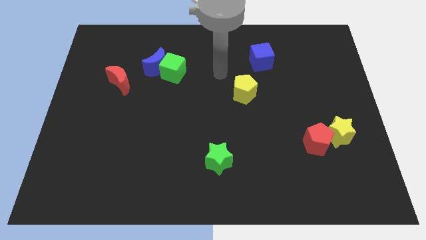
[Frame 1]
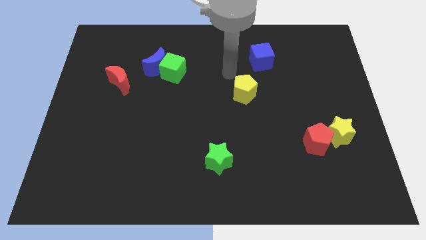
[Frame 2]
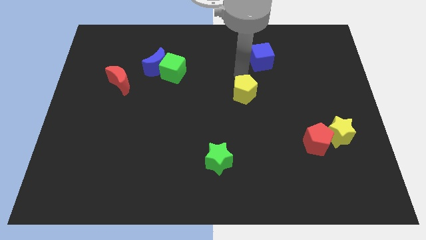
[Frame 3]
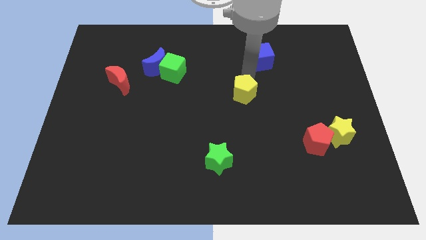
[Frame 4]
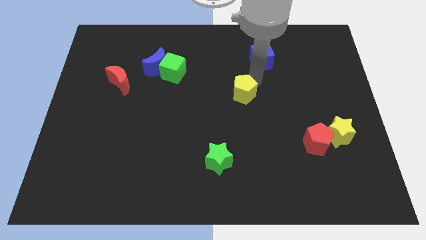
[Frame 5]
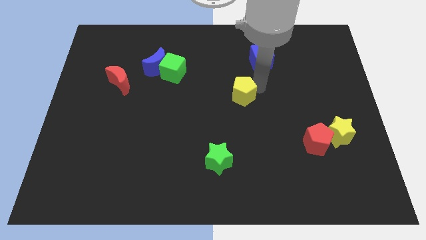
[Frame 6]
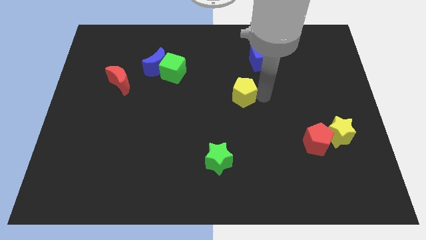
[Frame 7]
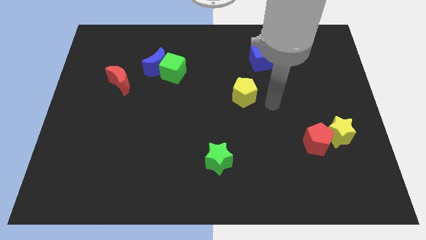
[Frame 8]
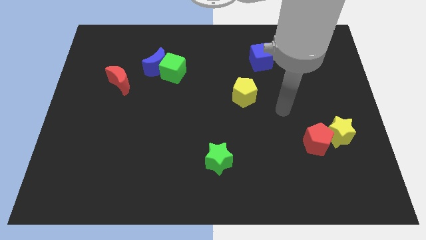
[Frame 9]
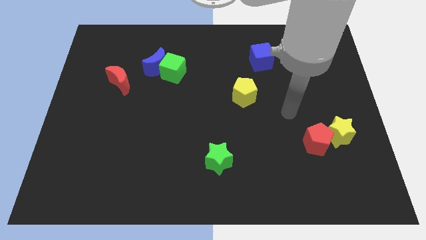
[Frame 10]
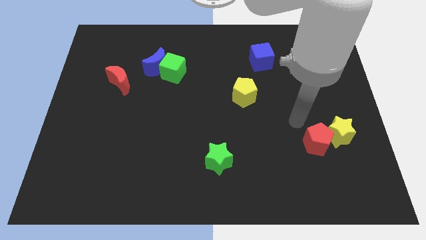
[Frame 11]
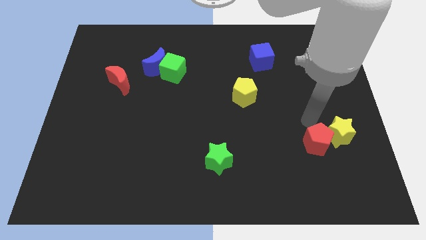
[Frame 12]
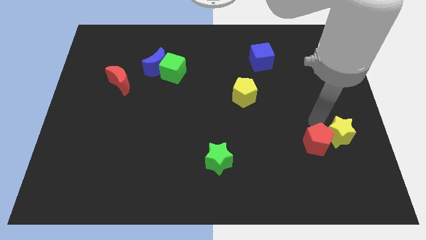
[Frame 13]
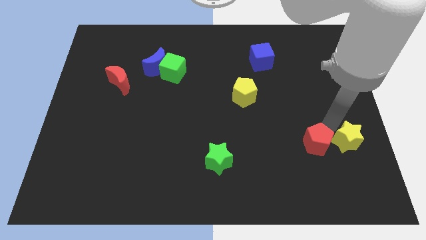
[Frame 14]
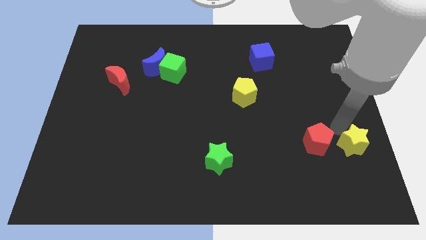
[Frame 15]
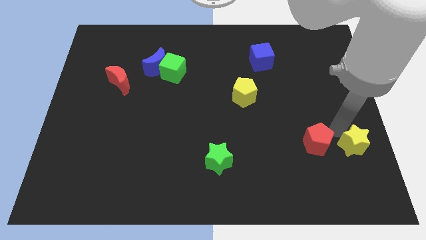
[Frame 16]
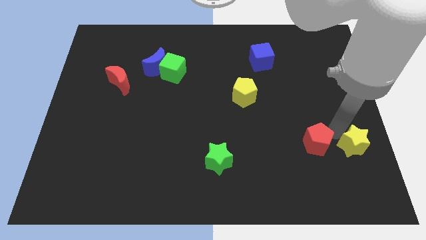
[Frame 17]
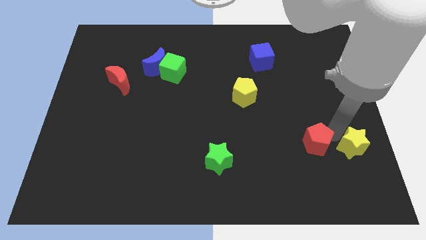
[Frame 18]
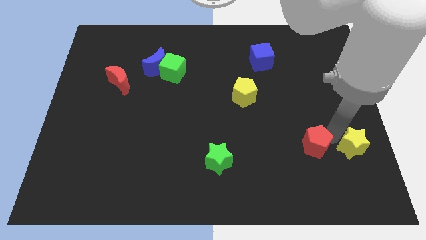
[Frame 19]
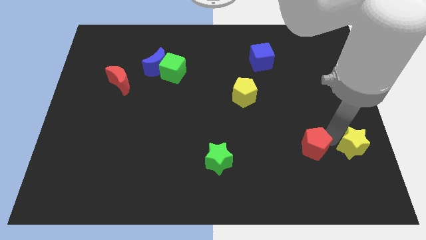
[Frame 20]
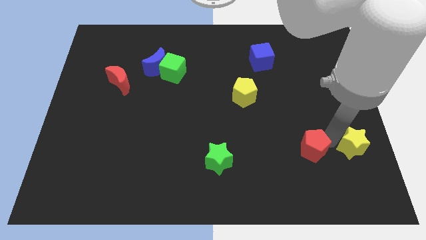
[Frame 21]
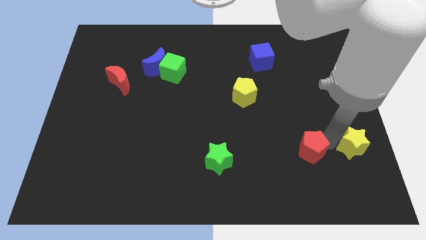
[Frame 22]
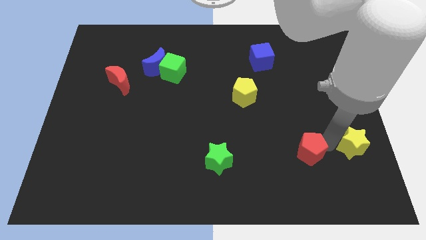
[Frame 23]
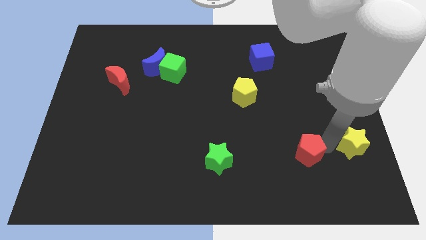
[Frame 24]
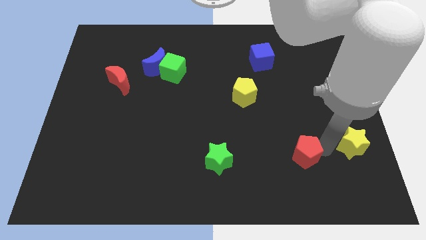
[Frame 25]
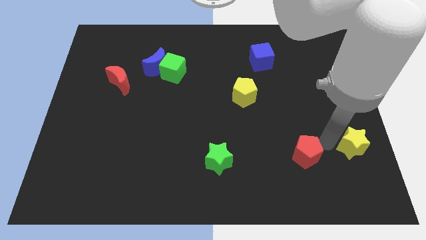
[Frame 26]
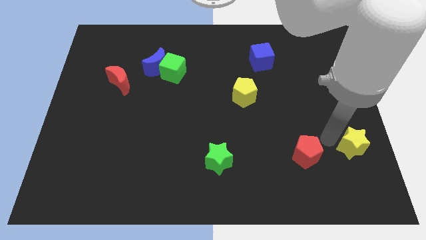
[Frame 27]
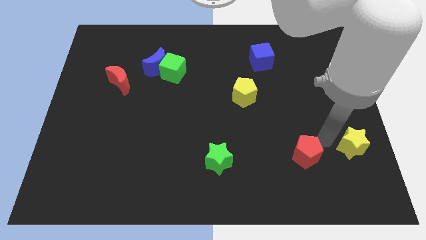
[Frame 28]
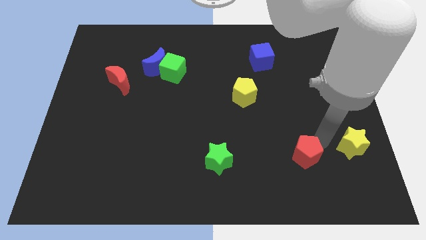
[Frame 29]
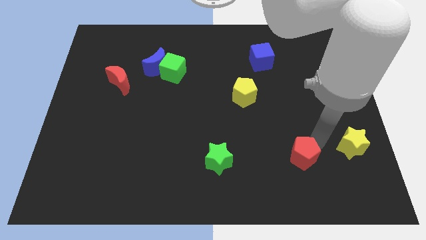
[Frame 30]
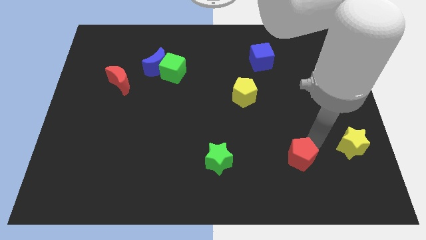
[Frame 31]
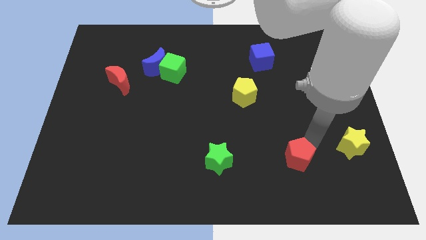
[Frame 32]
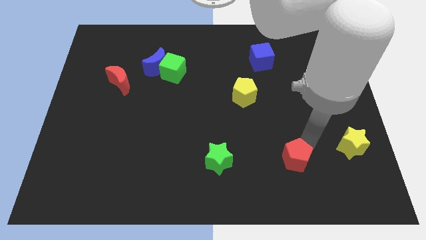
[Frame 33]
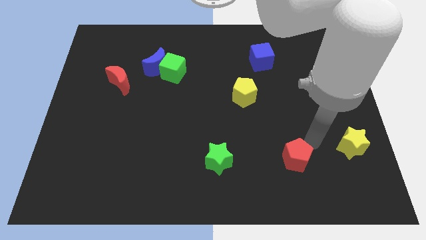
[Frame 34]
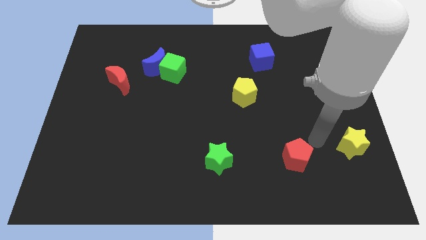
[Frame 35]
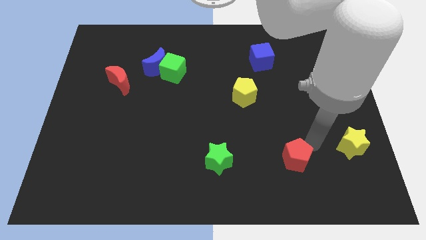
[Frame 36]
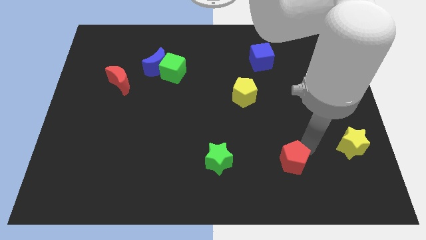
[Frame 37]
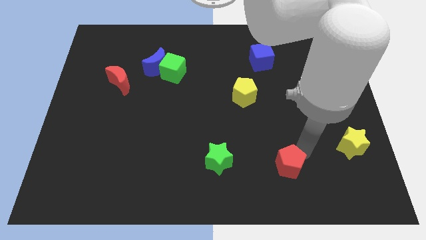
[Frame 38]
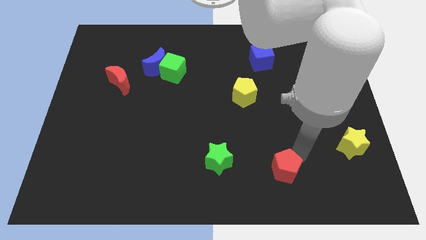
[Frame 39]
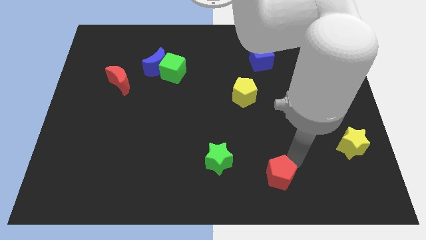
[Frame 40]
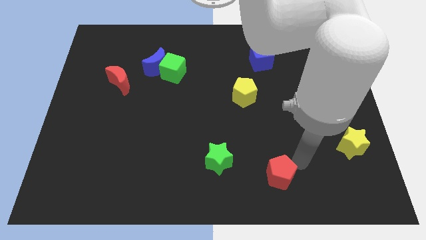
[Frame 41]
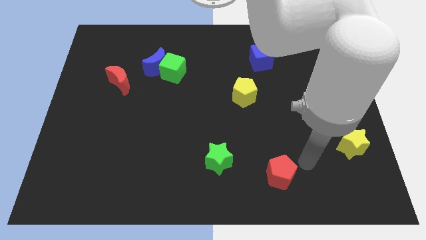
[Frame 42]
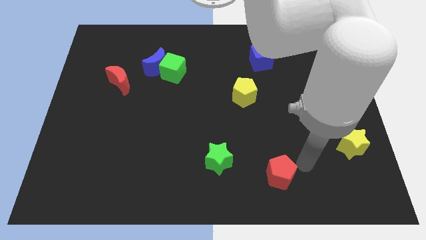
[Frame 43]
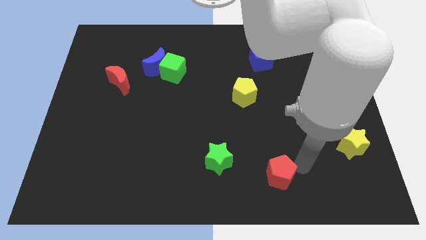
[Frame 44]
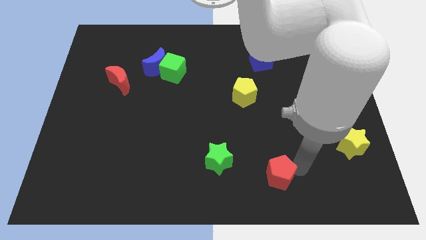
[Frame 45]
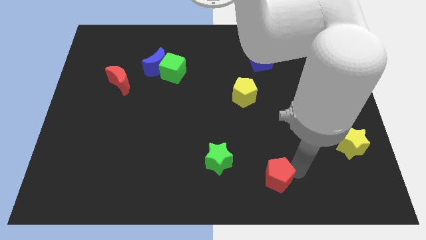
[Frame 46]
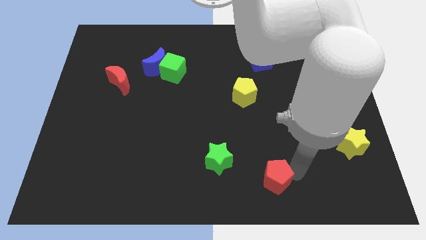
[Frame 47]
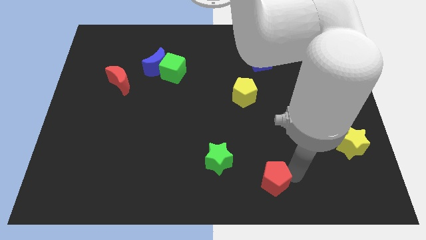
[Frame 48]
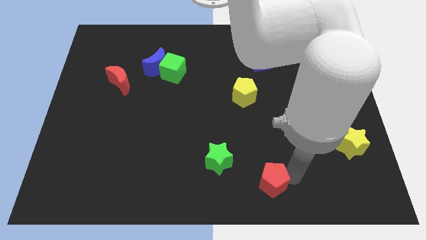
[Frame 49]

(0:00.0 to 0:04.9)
push the red pentagon to the bottom

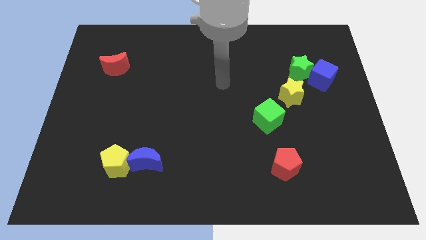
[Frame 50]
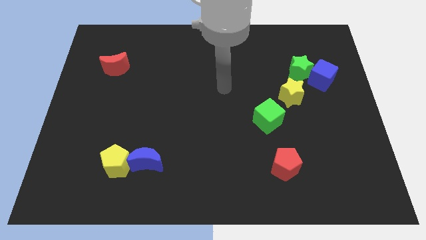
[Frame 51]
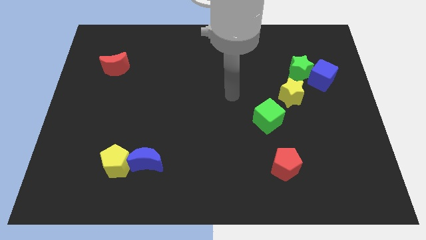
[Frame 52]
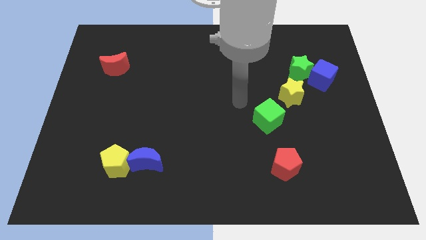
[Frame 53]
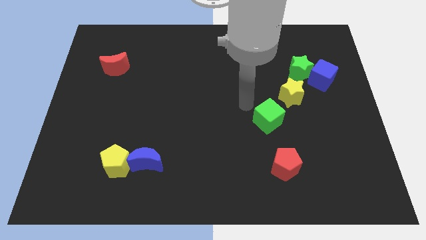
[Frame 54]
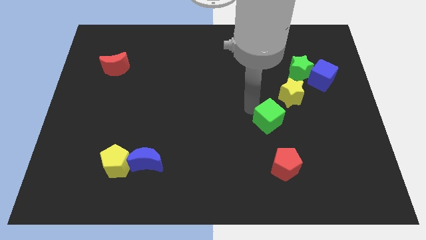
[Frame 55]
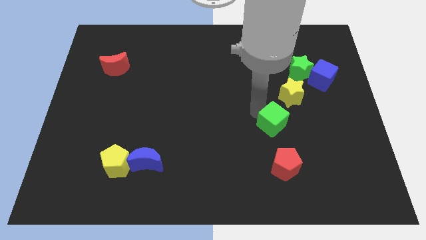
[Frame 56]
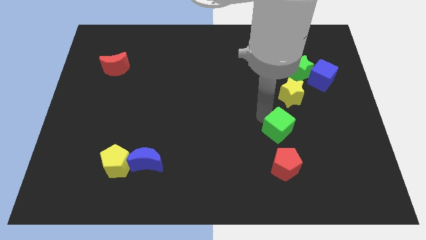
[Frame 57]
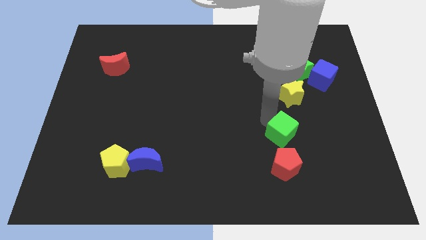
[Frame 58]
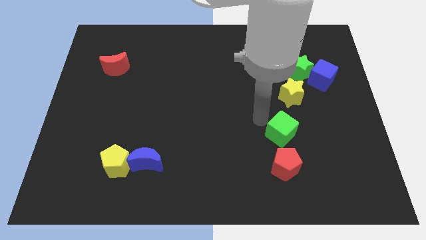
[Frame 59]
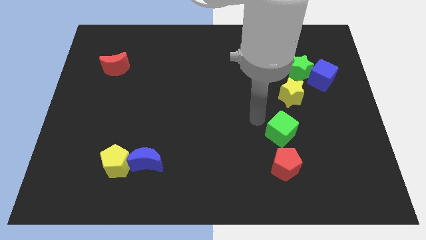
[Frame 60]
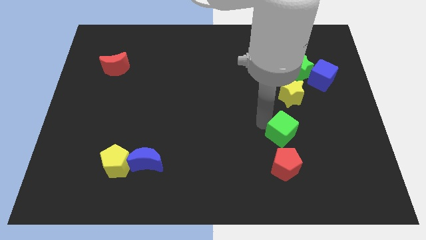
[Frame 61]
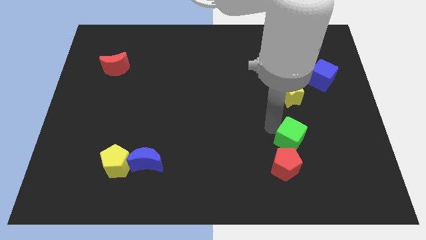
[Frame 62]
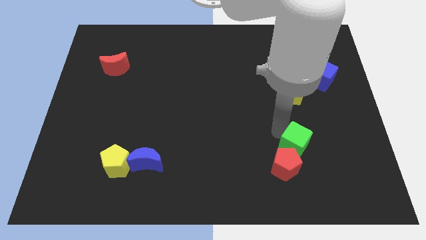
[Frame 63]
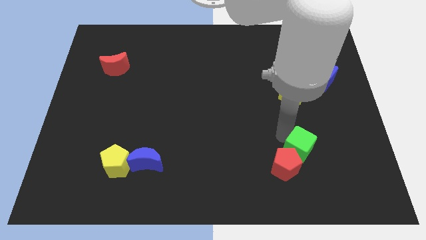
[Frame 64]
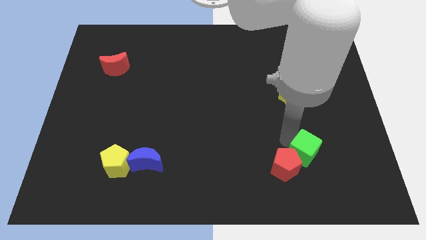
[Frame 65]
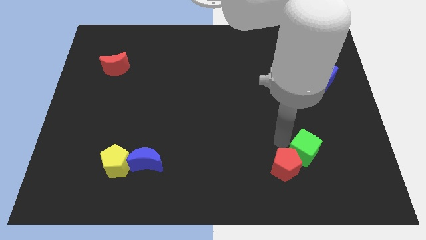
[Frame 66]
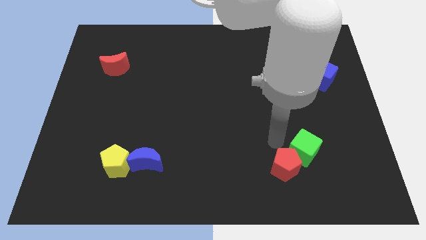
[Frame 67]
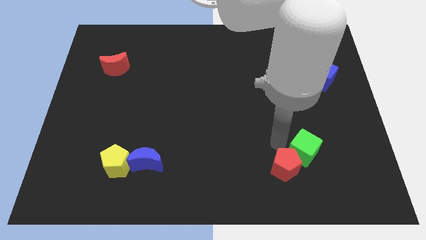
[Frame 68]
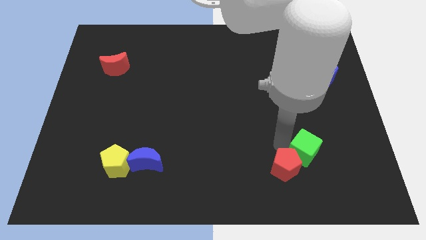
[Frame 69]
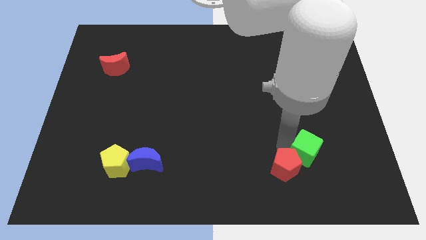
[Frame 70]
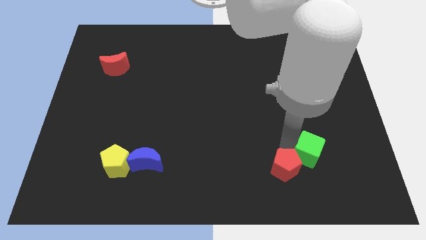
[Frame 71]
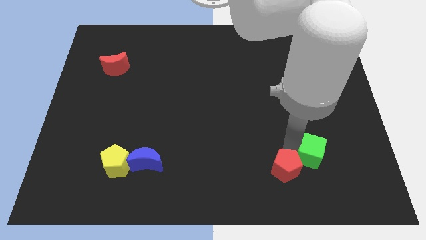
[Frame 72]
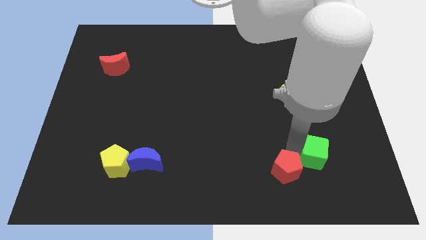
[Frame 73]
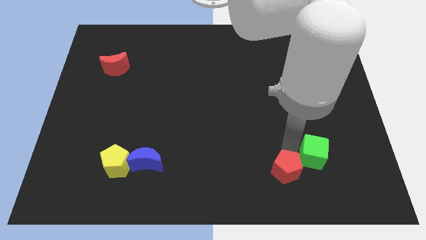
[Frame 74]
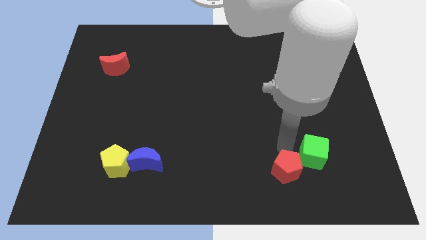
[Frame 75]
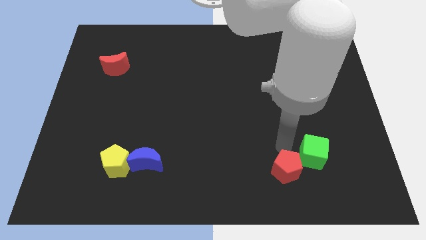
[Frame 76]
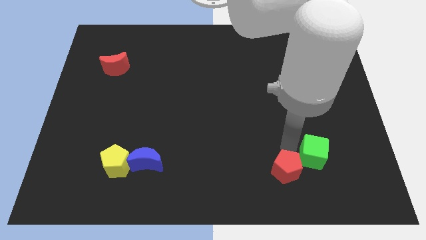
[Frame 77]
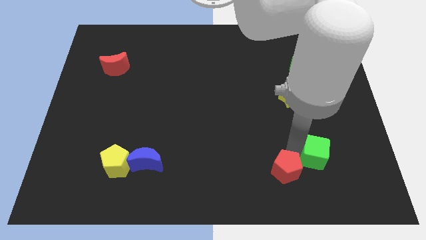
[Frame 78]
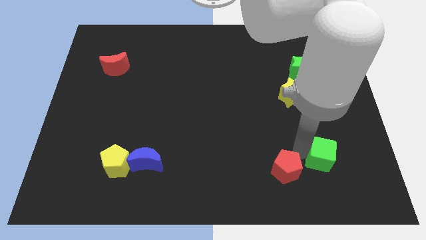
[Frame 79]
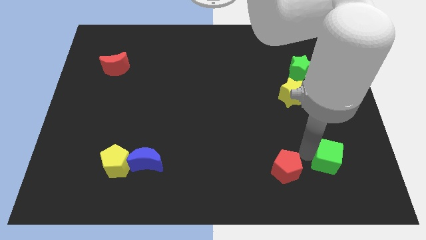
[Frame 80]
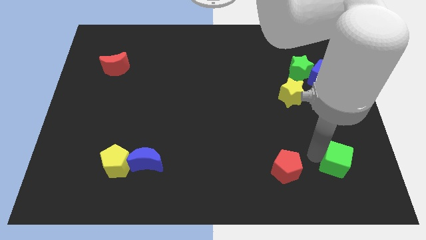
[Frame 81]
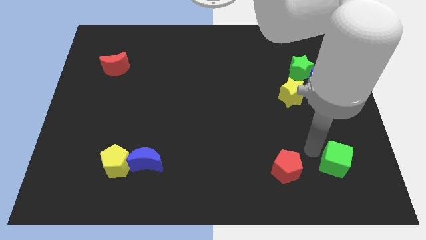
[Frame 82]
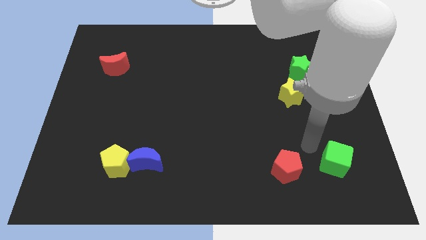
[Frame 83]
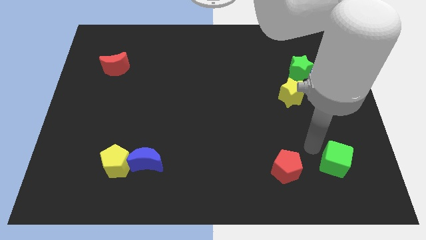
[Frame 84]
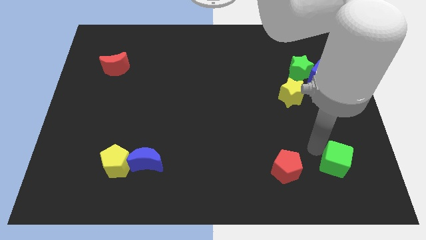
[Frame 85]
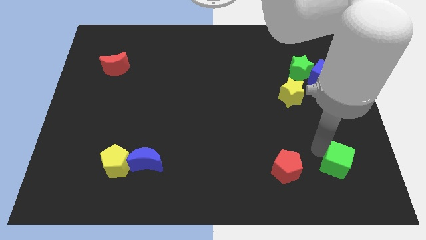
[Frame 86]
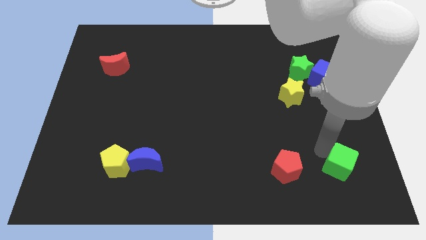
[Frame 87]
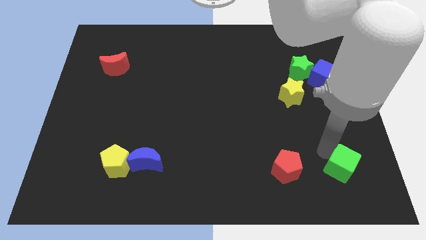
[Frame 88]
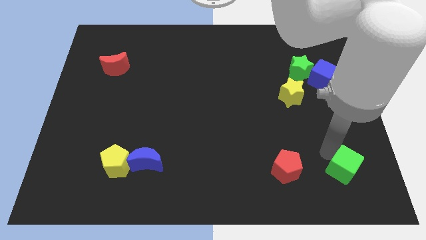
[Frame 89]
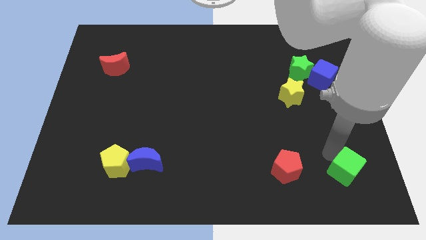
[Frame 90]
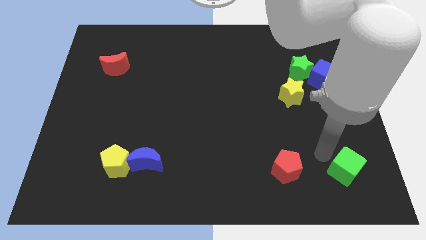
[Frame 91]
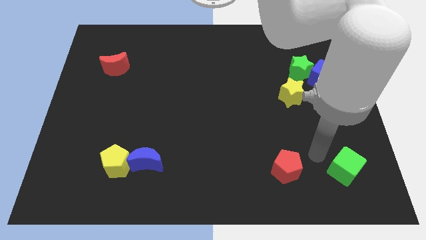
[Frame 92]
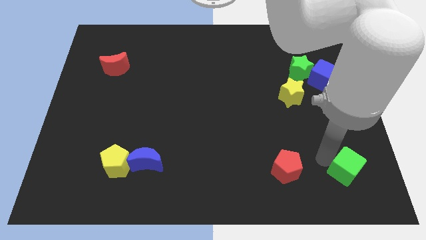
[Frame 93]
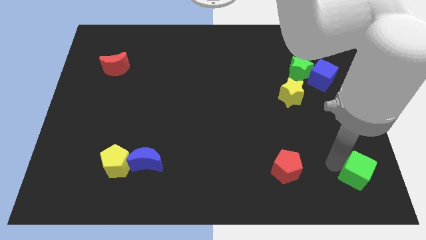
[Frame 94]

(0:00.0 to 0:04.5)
move the green cube to the bottom right corner
